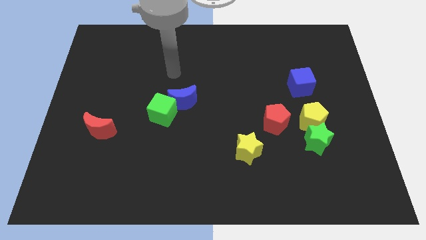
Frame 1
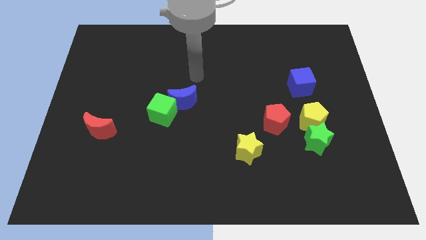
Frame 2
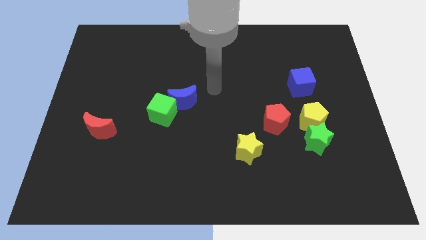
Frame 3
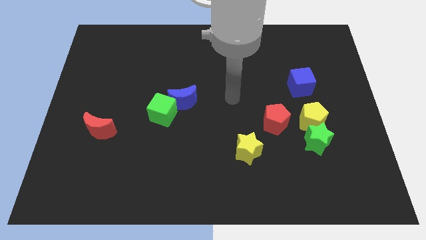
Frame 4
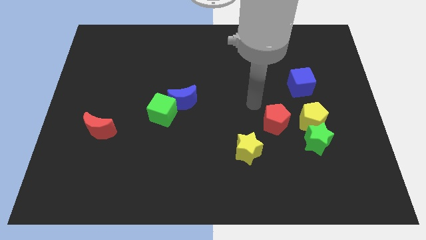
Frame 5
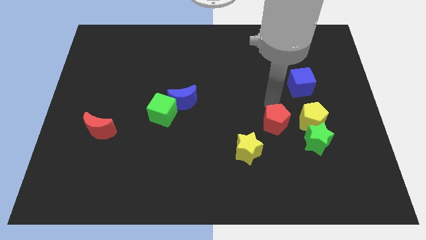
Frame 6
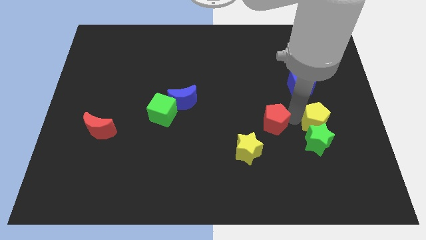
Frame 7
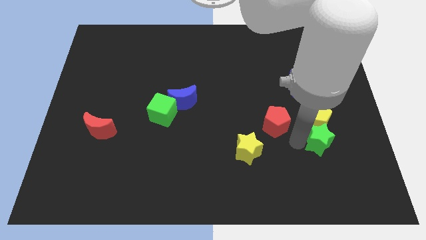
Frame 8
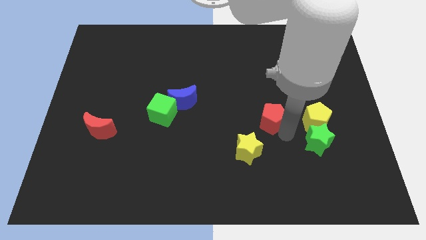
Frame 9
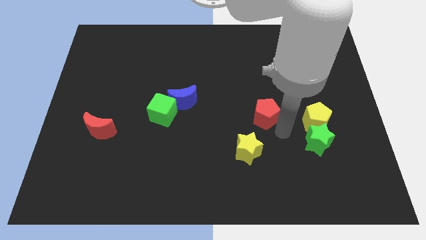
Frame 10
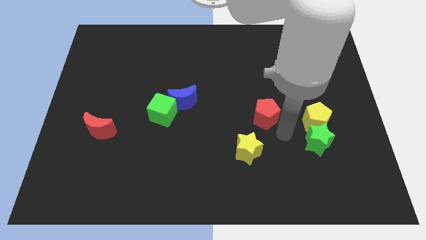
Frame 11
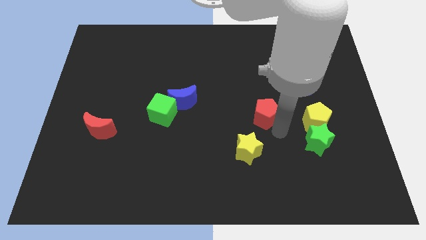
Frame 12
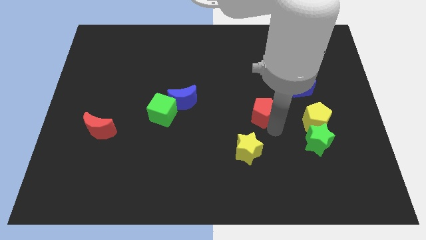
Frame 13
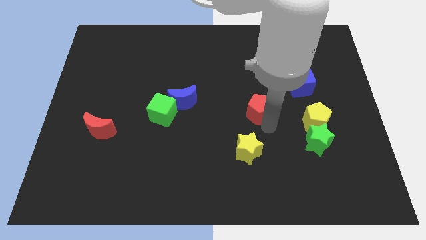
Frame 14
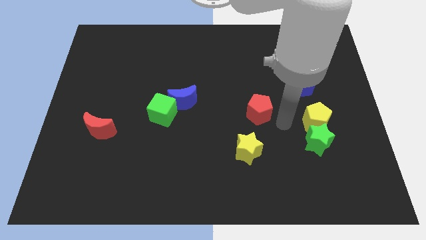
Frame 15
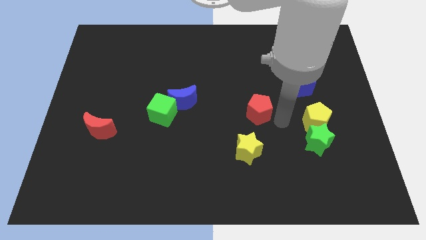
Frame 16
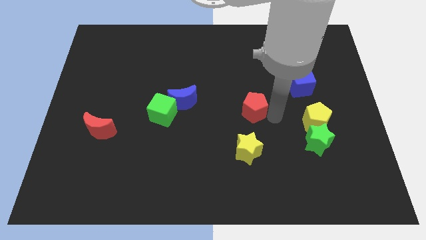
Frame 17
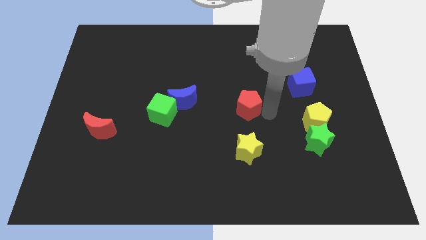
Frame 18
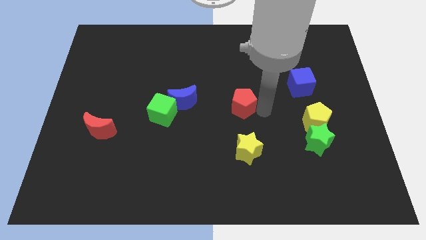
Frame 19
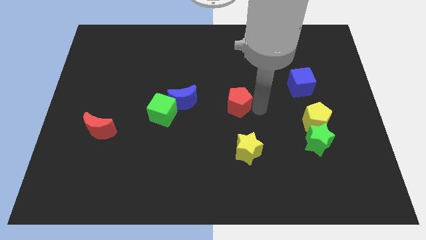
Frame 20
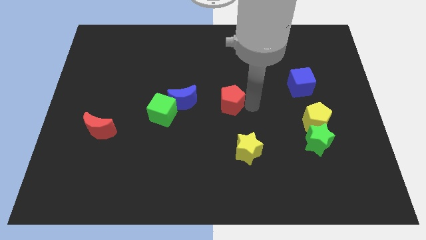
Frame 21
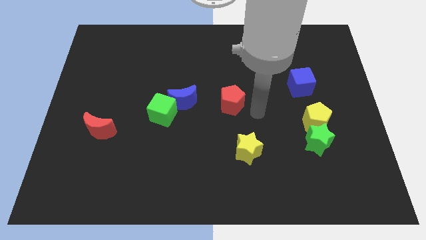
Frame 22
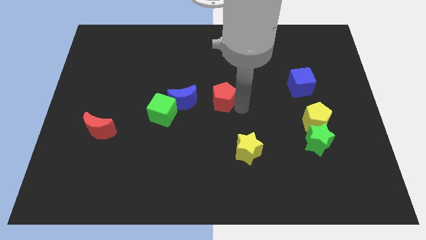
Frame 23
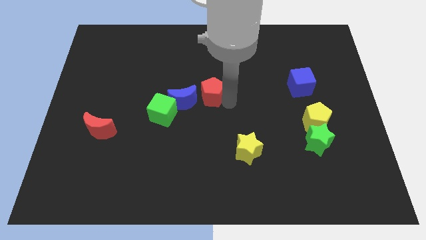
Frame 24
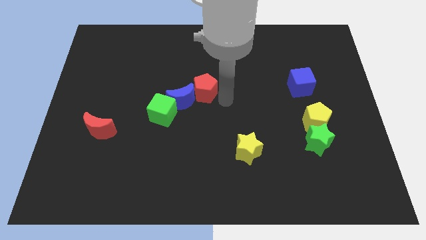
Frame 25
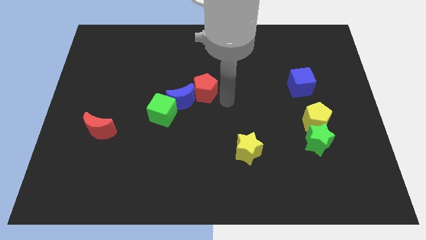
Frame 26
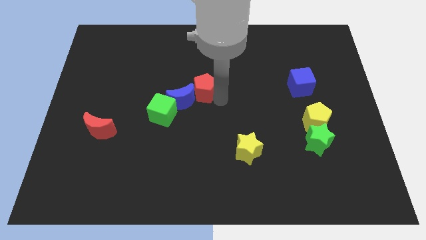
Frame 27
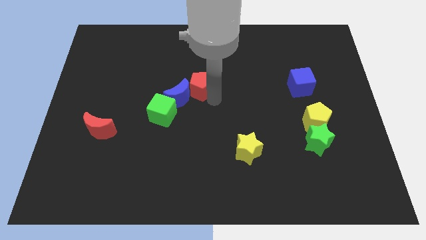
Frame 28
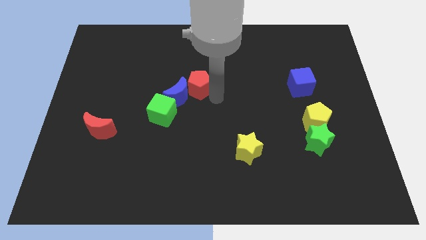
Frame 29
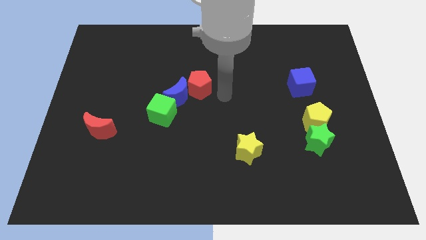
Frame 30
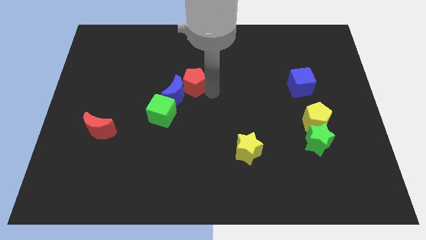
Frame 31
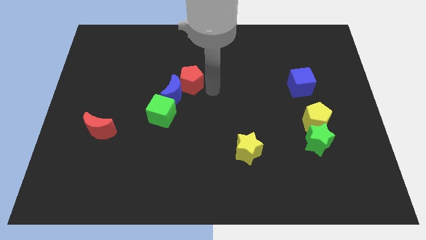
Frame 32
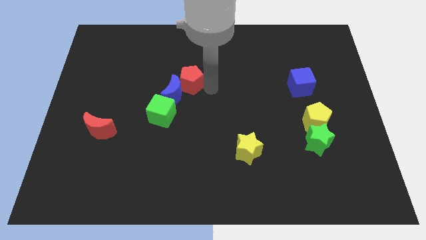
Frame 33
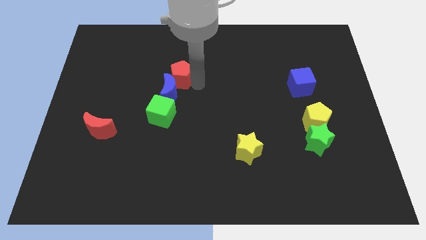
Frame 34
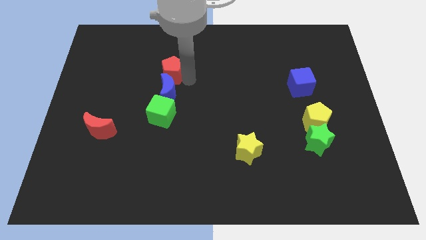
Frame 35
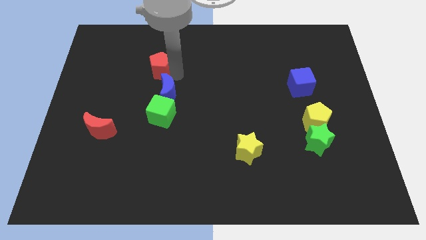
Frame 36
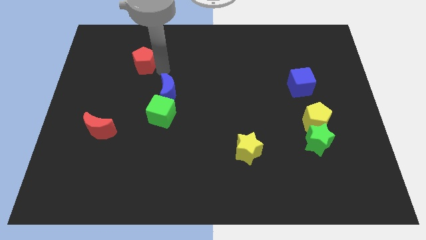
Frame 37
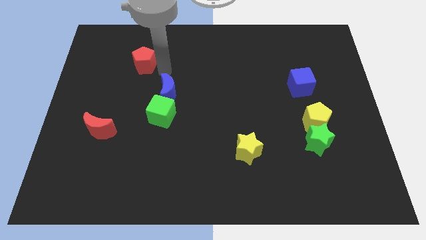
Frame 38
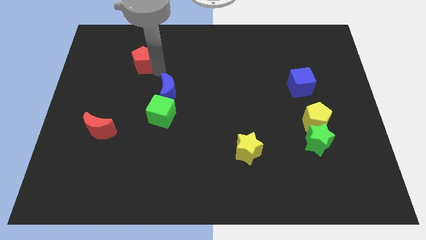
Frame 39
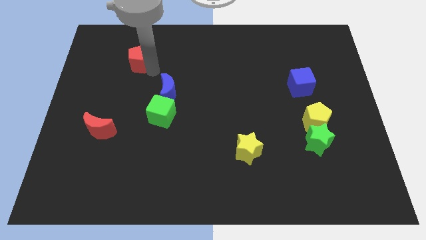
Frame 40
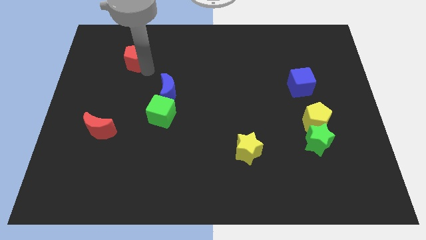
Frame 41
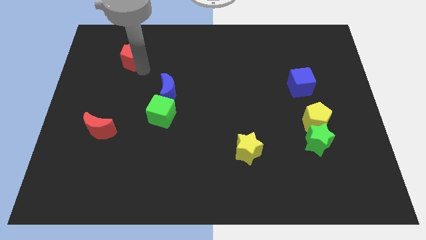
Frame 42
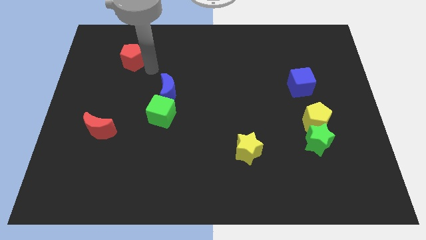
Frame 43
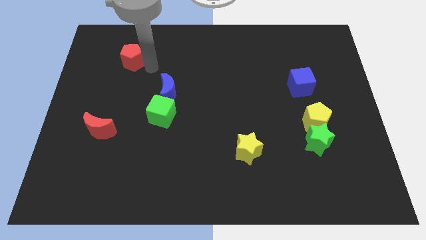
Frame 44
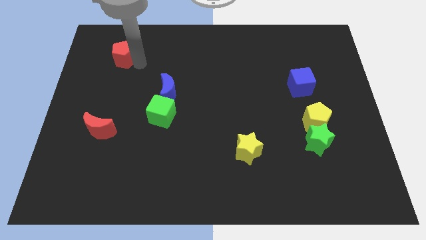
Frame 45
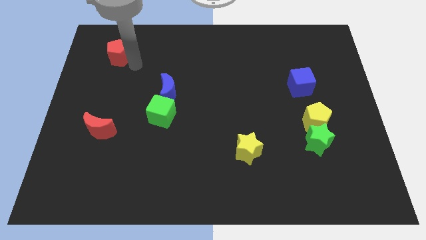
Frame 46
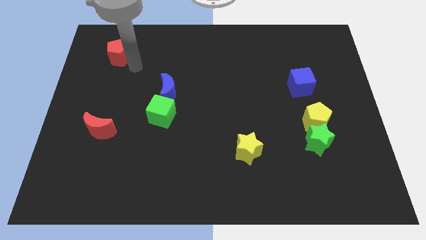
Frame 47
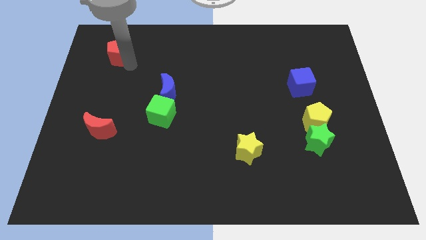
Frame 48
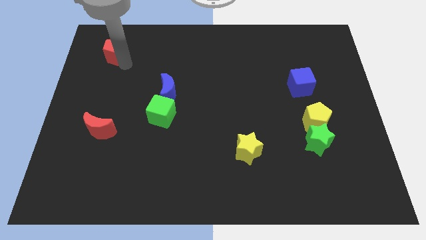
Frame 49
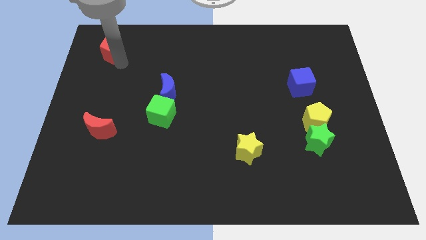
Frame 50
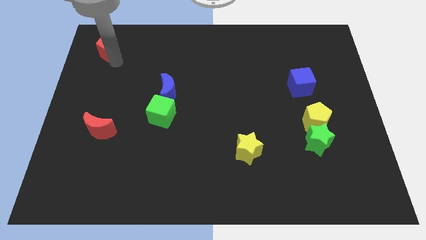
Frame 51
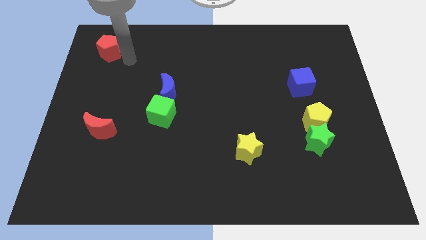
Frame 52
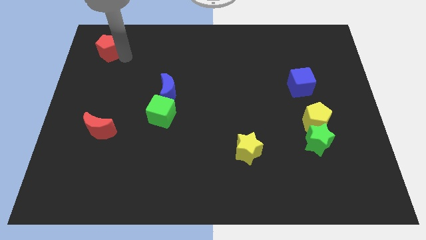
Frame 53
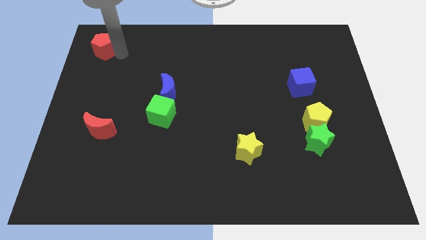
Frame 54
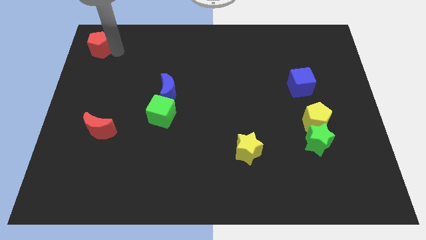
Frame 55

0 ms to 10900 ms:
push the red pentagon to the upper left corner

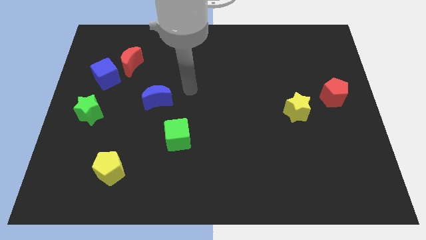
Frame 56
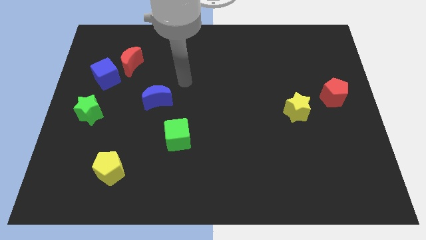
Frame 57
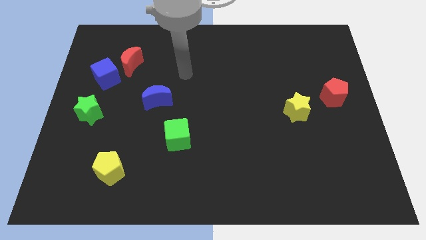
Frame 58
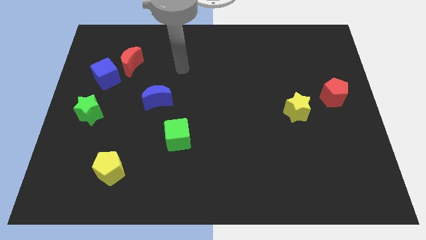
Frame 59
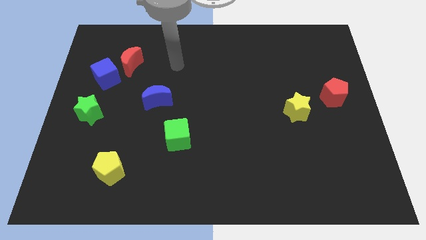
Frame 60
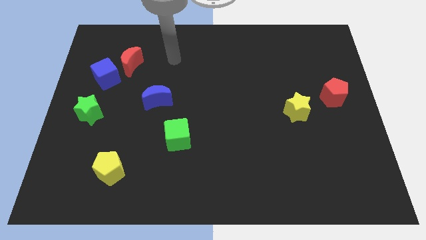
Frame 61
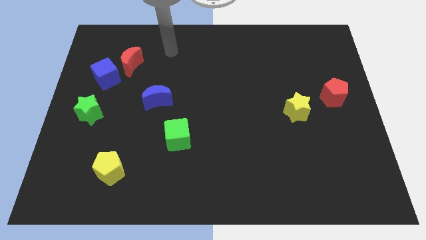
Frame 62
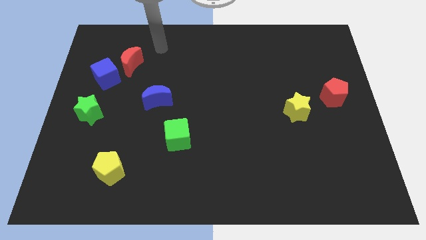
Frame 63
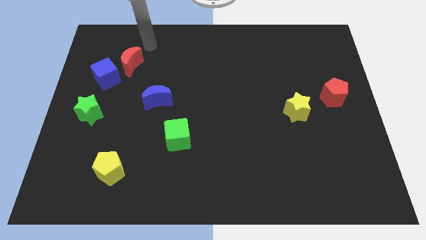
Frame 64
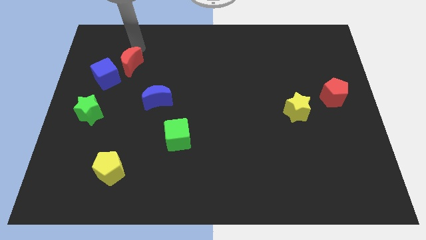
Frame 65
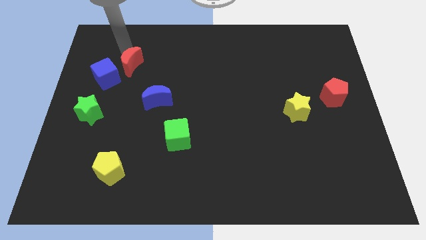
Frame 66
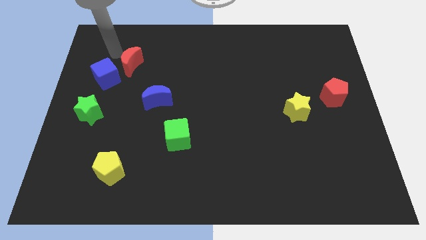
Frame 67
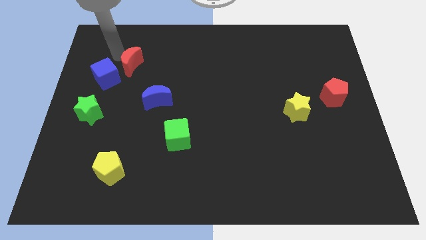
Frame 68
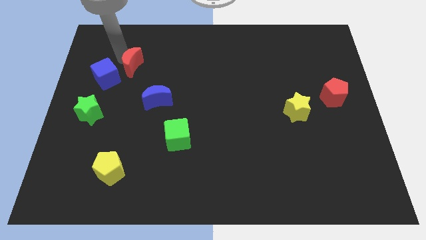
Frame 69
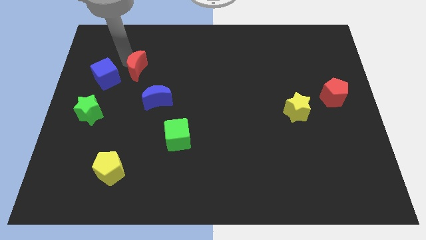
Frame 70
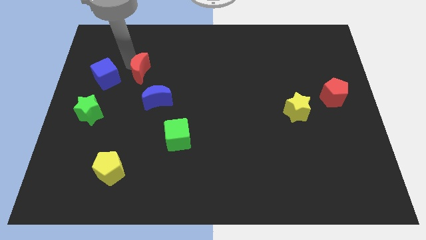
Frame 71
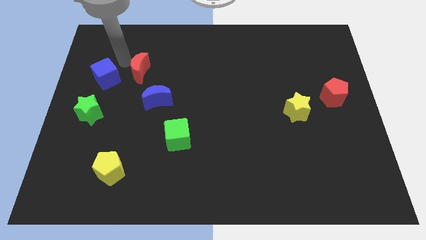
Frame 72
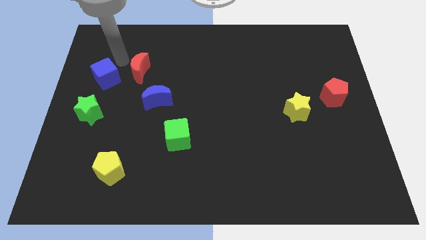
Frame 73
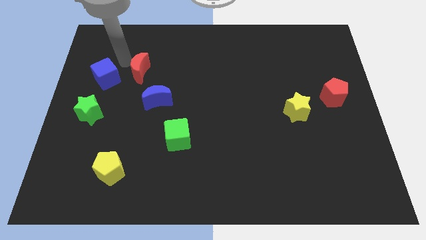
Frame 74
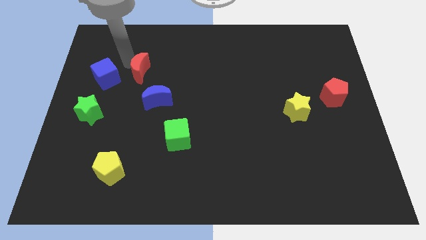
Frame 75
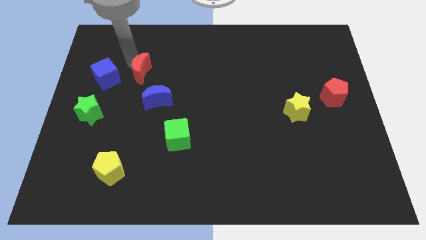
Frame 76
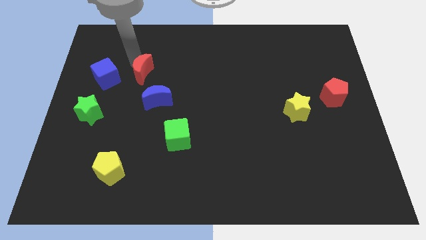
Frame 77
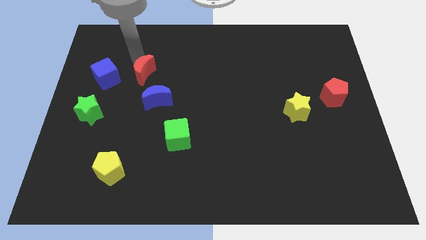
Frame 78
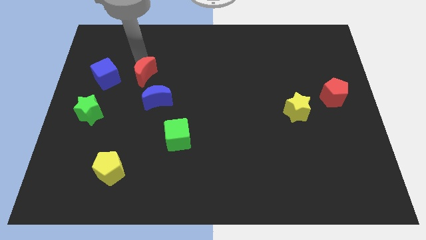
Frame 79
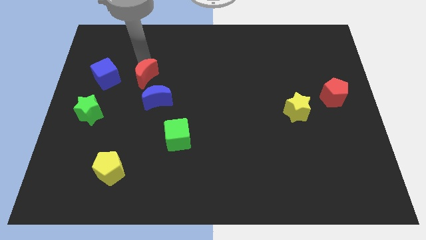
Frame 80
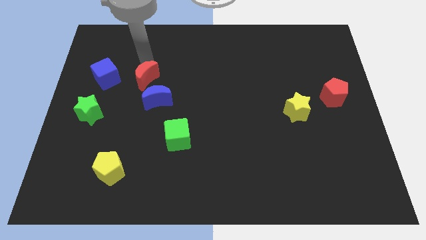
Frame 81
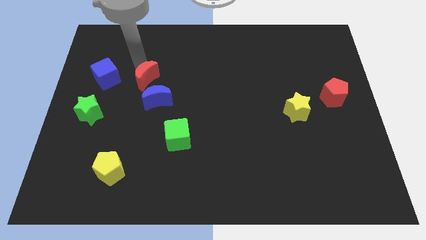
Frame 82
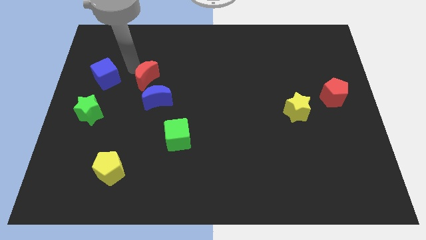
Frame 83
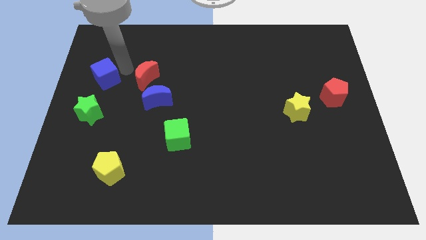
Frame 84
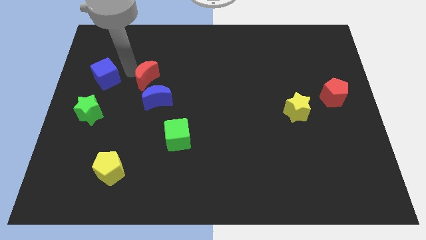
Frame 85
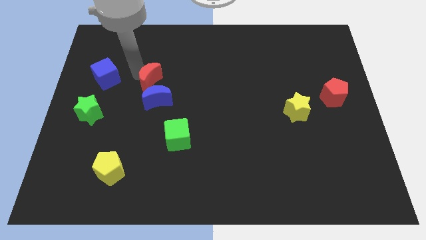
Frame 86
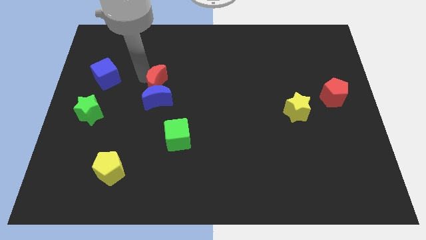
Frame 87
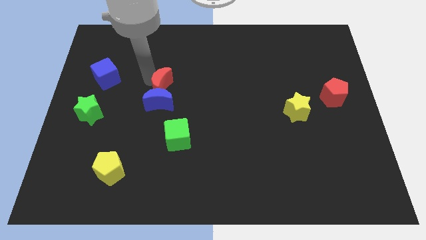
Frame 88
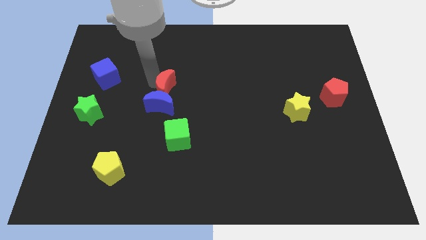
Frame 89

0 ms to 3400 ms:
move the red moon to the middle
